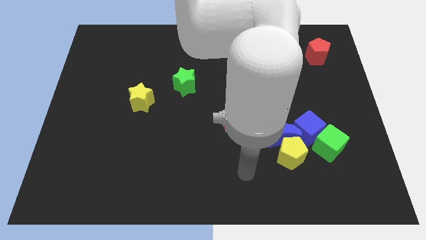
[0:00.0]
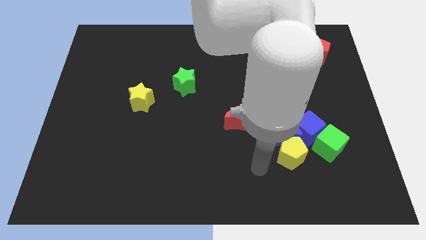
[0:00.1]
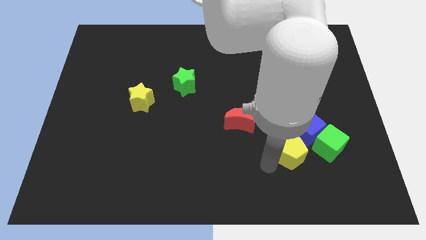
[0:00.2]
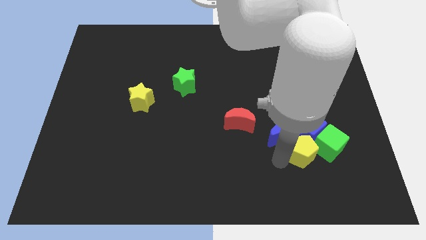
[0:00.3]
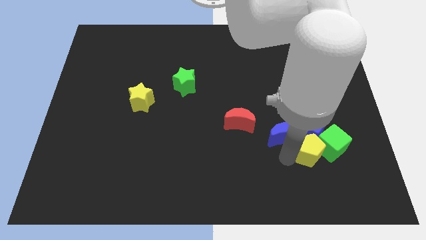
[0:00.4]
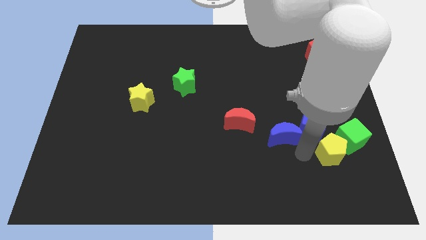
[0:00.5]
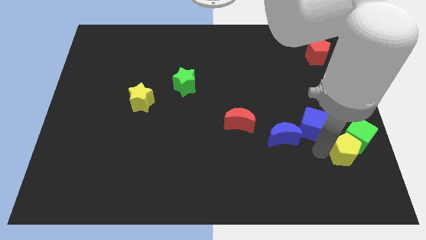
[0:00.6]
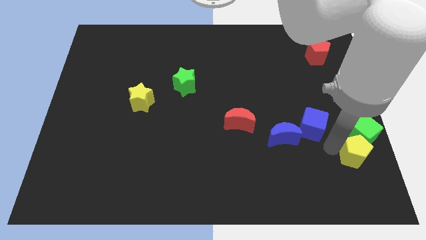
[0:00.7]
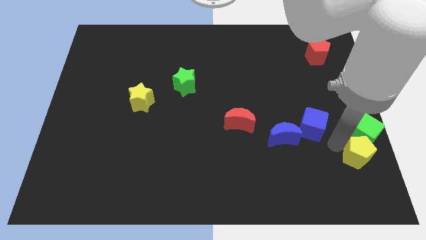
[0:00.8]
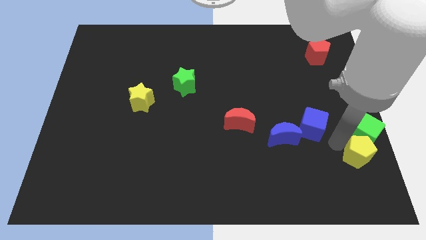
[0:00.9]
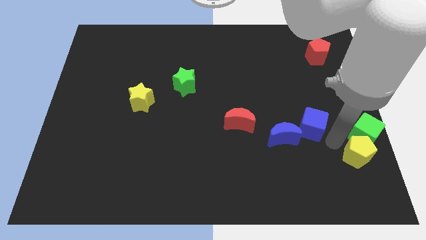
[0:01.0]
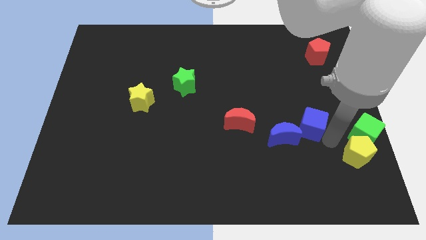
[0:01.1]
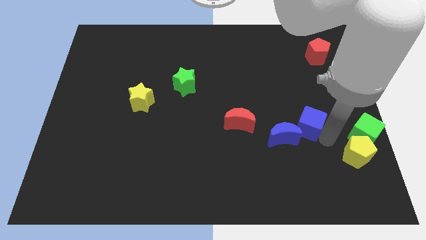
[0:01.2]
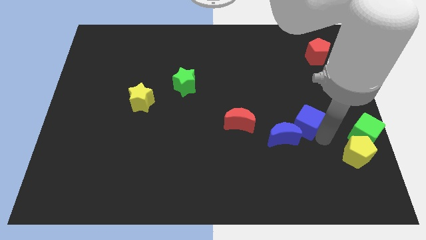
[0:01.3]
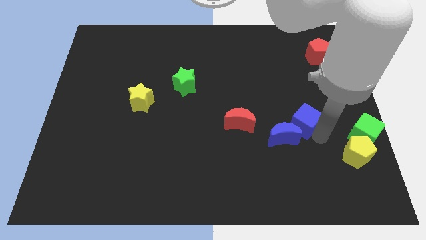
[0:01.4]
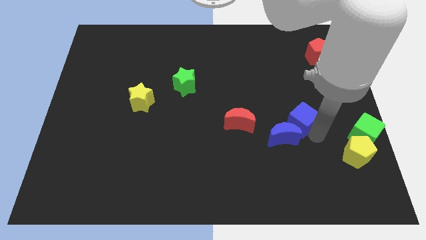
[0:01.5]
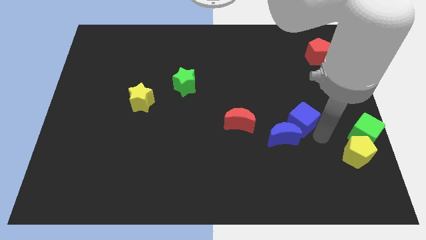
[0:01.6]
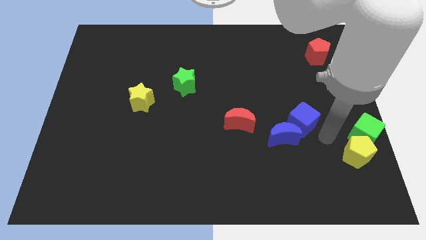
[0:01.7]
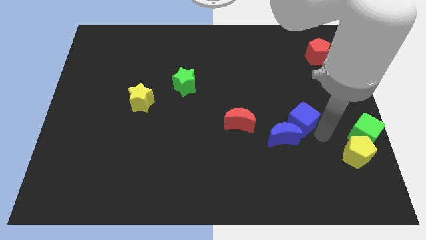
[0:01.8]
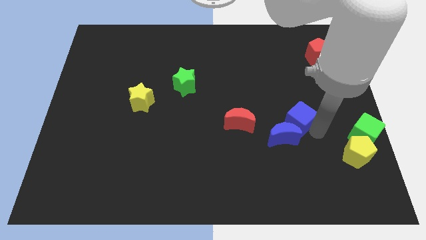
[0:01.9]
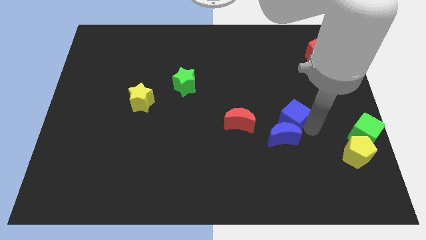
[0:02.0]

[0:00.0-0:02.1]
separate the blue cube from the clump

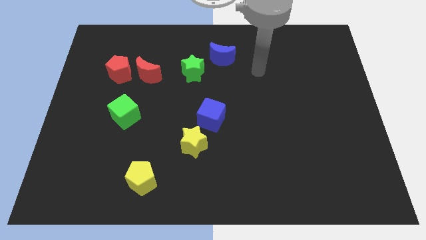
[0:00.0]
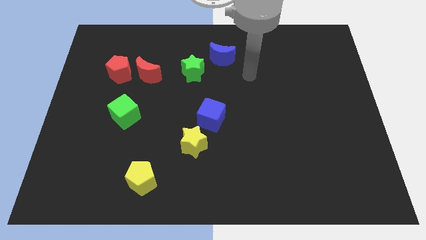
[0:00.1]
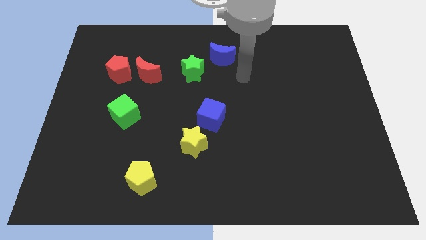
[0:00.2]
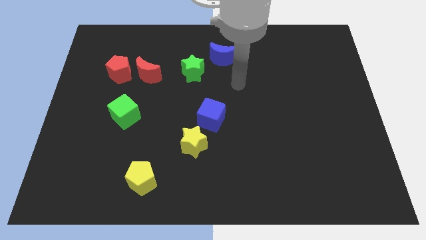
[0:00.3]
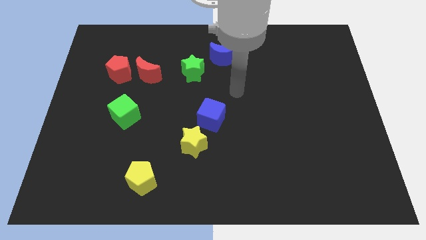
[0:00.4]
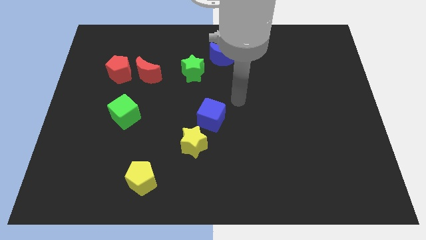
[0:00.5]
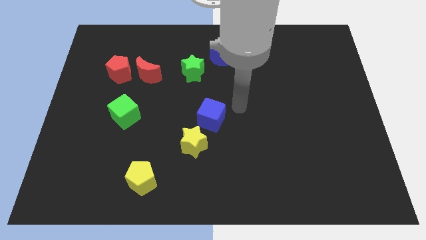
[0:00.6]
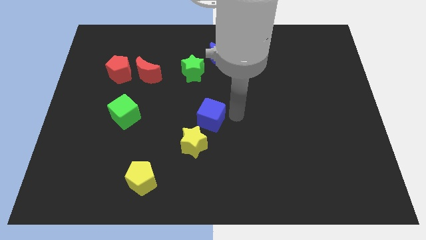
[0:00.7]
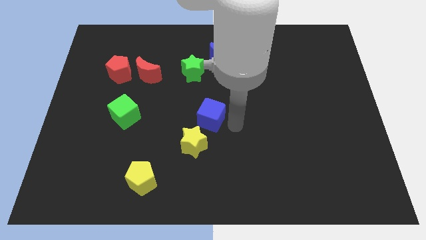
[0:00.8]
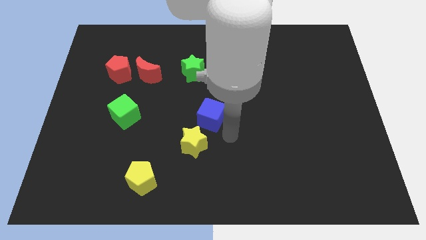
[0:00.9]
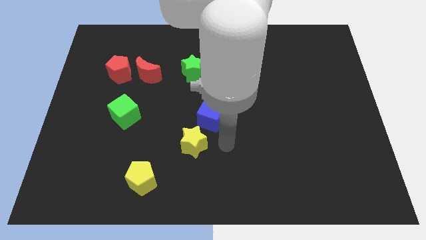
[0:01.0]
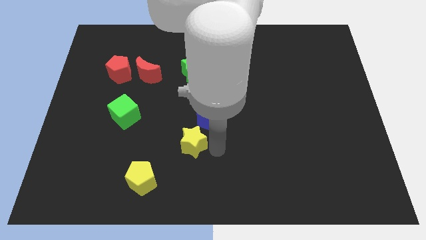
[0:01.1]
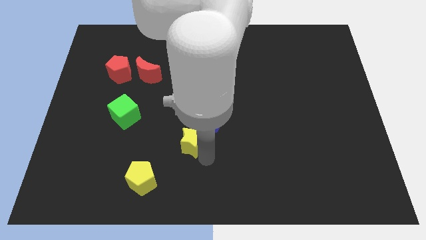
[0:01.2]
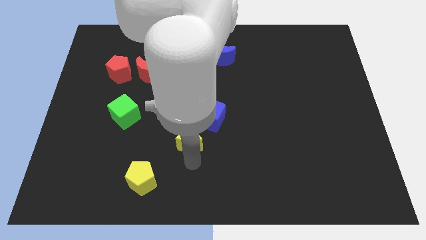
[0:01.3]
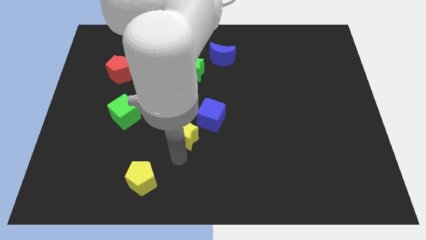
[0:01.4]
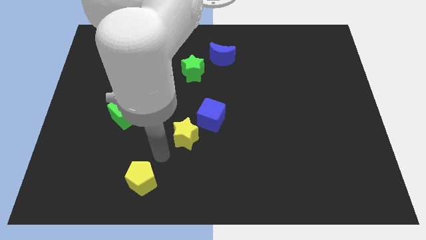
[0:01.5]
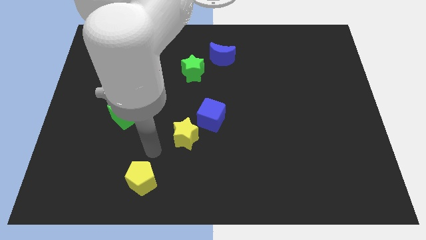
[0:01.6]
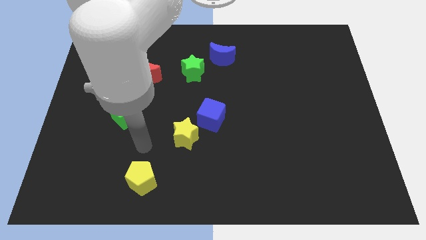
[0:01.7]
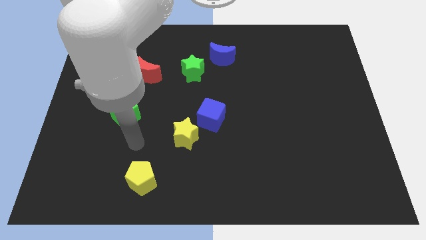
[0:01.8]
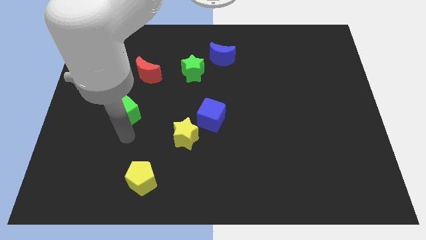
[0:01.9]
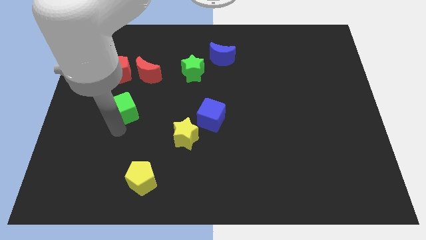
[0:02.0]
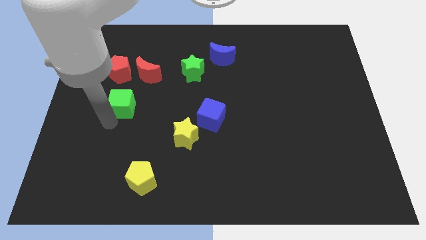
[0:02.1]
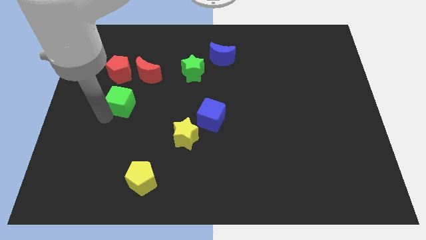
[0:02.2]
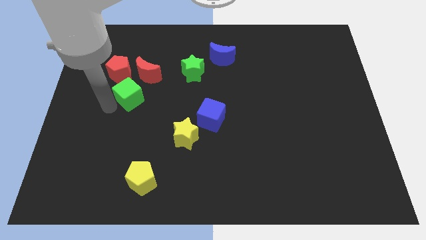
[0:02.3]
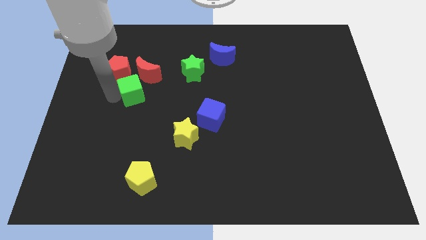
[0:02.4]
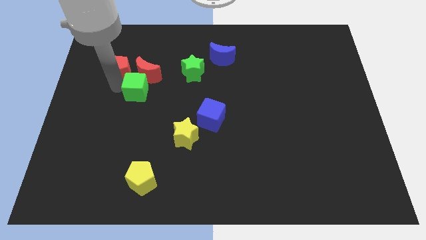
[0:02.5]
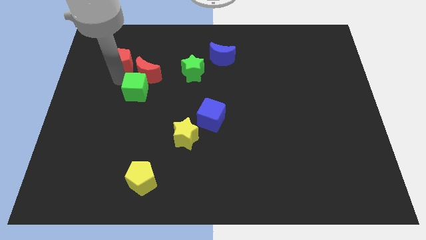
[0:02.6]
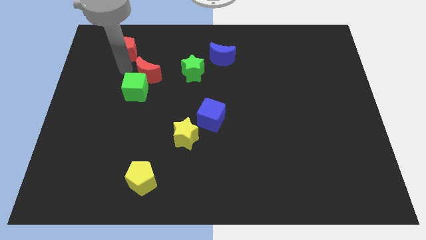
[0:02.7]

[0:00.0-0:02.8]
separate the red moon from the red pentagon

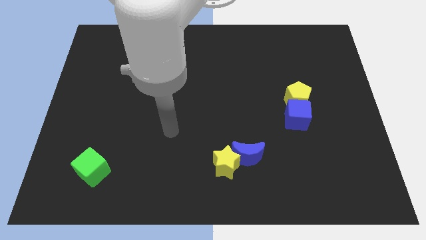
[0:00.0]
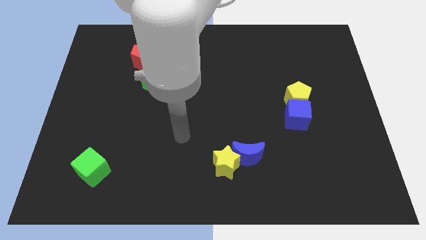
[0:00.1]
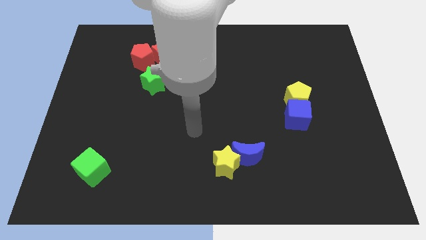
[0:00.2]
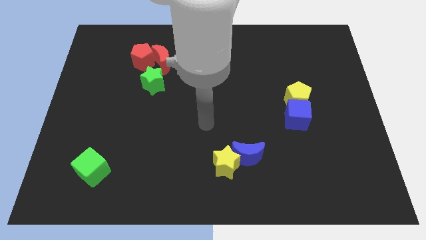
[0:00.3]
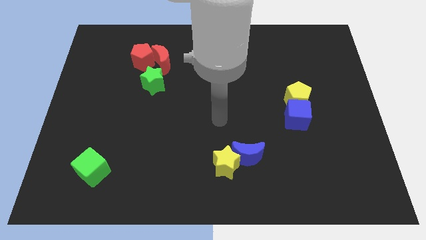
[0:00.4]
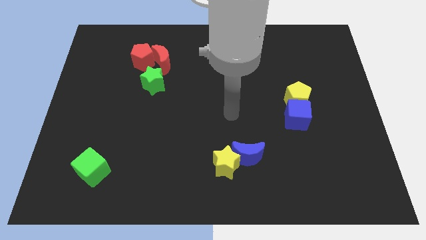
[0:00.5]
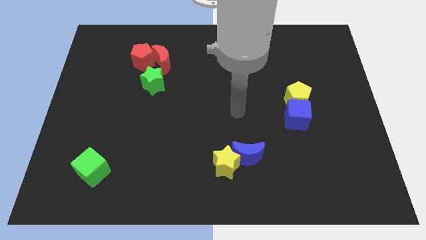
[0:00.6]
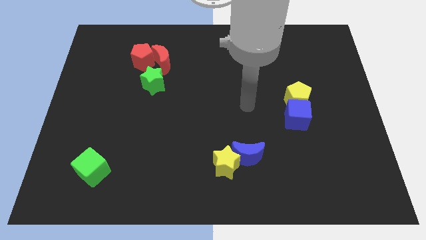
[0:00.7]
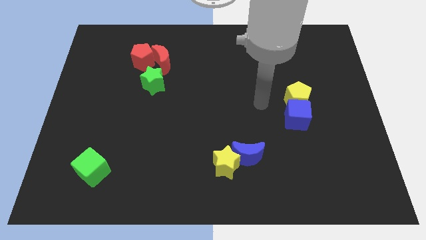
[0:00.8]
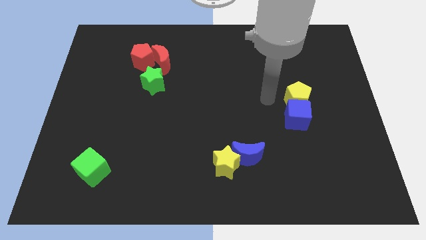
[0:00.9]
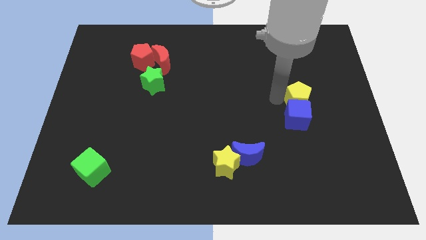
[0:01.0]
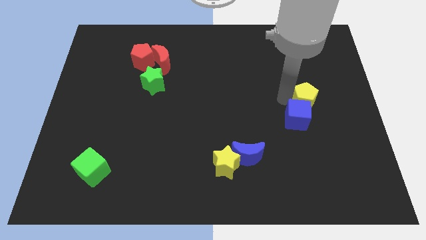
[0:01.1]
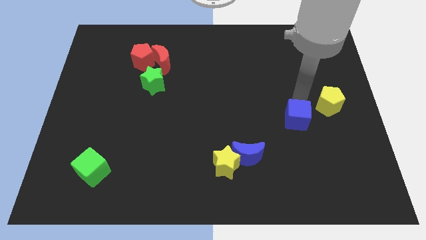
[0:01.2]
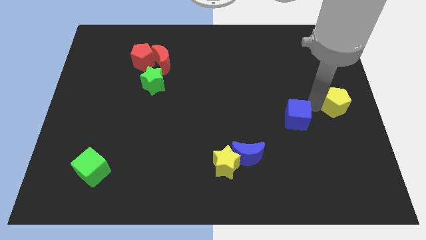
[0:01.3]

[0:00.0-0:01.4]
pull the blue cube apart from the yellow pentagon

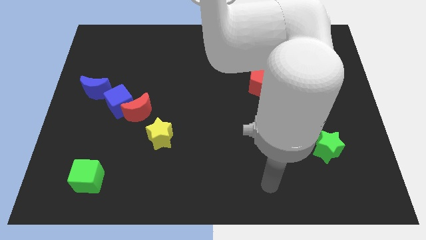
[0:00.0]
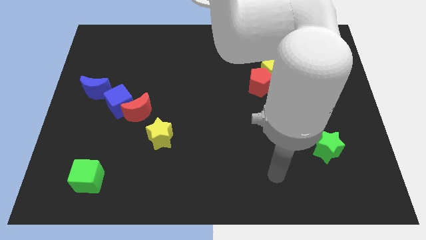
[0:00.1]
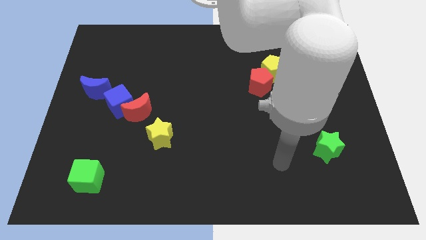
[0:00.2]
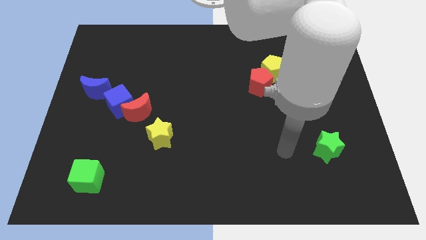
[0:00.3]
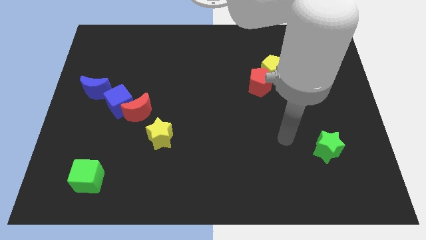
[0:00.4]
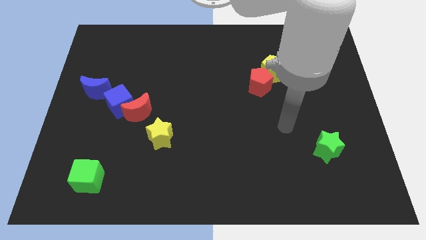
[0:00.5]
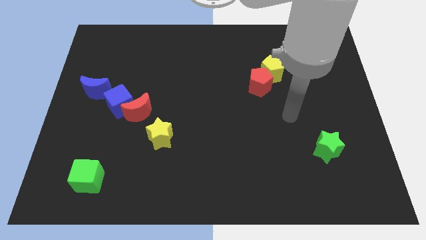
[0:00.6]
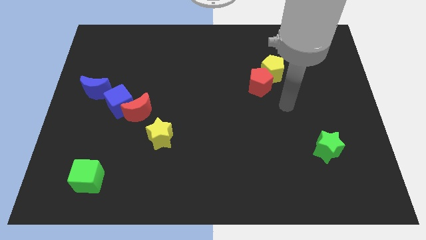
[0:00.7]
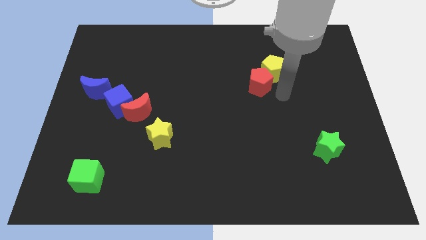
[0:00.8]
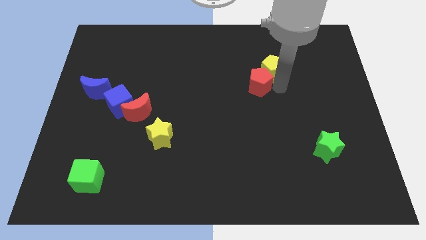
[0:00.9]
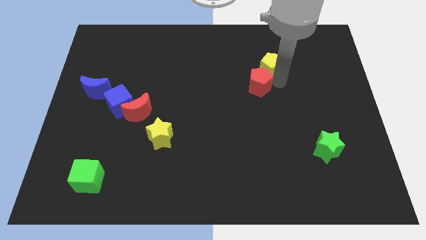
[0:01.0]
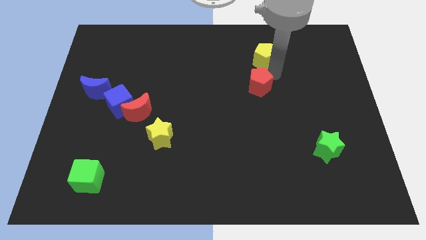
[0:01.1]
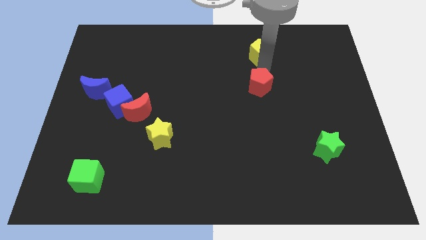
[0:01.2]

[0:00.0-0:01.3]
move the red pentagon away from the yellow pentagon

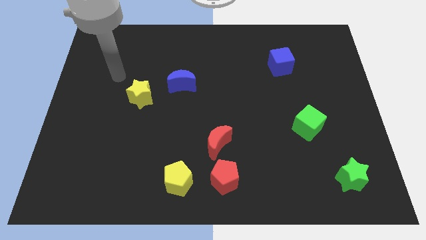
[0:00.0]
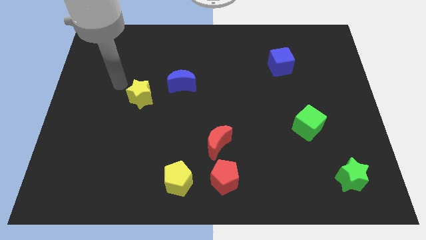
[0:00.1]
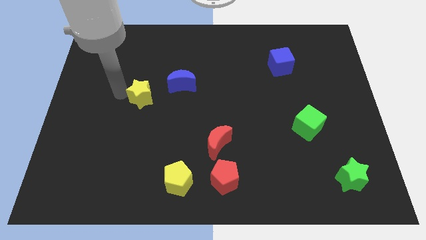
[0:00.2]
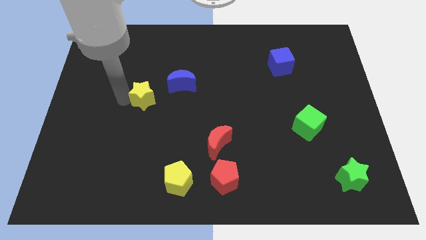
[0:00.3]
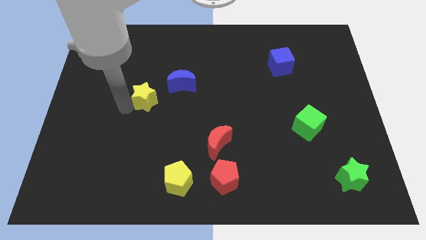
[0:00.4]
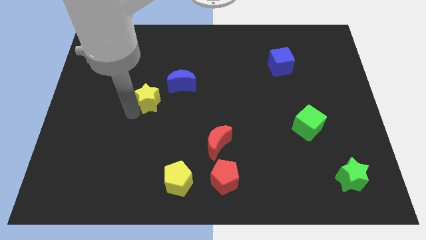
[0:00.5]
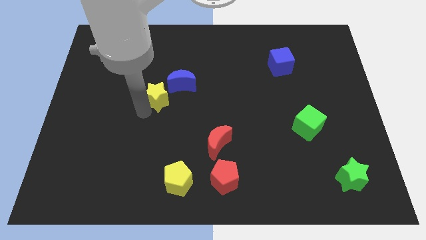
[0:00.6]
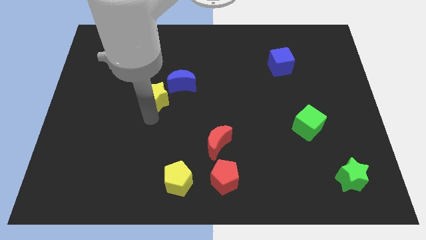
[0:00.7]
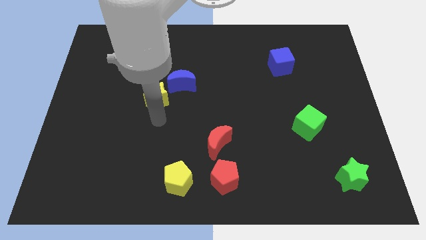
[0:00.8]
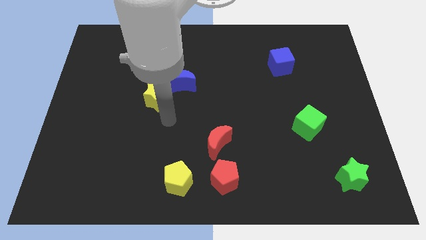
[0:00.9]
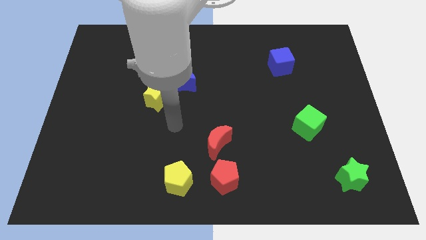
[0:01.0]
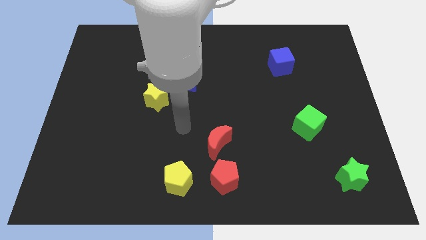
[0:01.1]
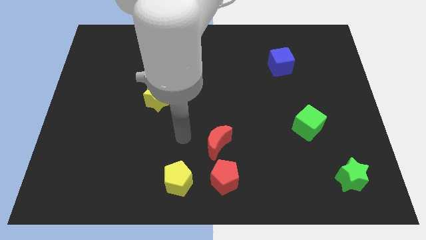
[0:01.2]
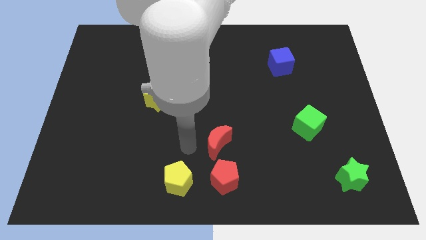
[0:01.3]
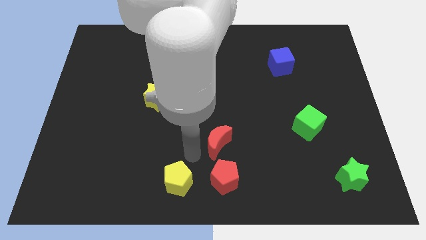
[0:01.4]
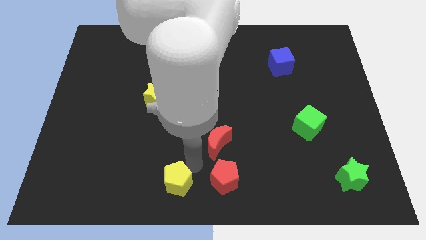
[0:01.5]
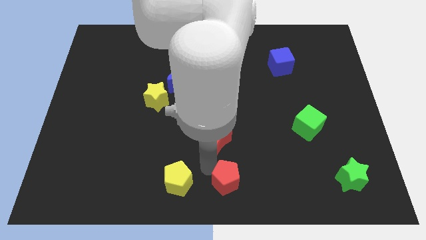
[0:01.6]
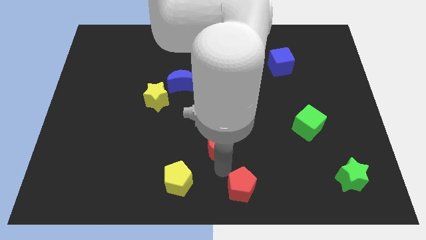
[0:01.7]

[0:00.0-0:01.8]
move the red moon away from the red pentagon
